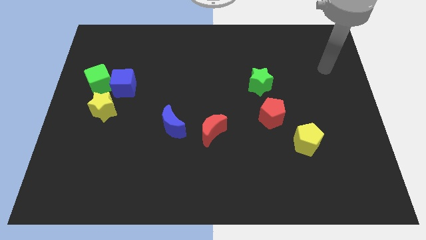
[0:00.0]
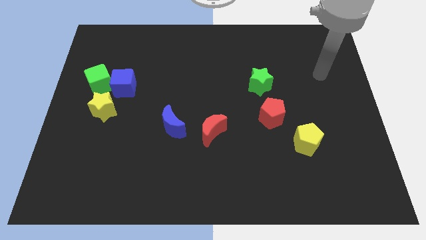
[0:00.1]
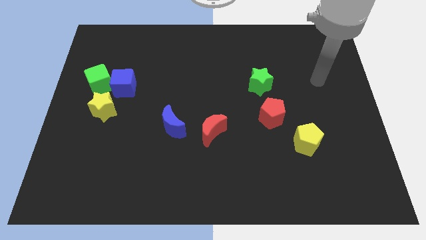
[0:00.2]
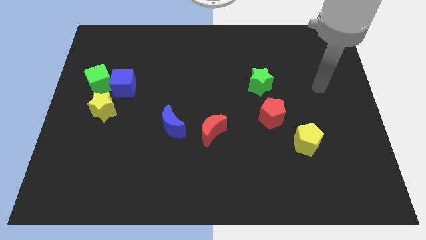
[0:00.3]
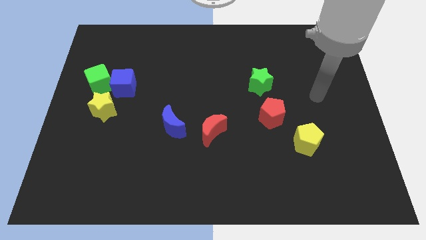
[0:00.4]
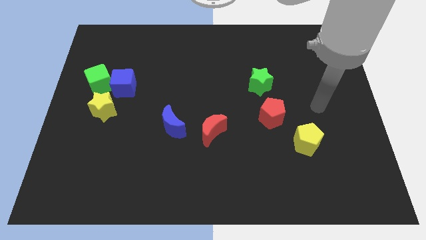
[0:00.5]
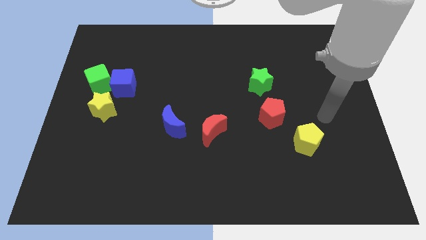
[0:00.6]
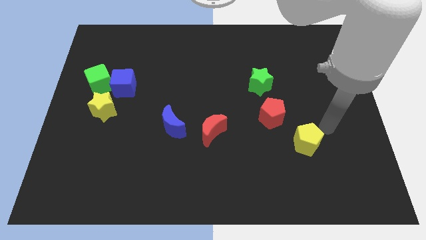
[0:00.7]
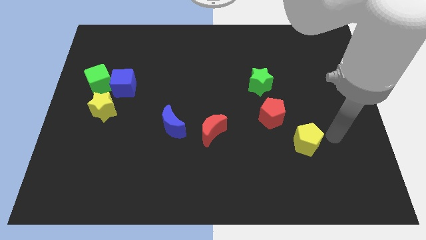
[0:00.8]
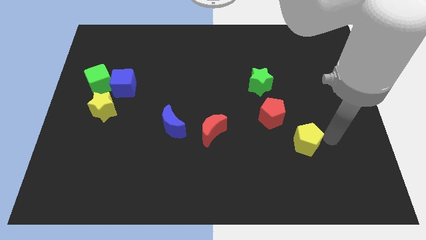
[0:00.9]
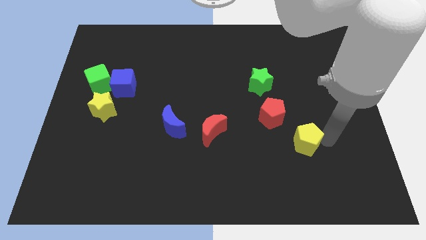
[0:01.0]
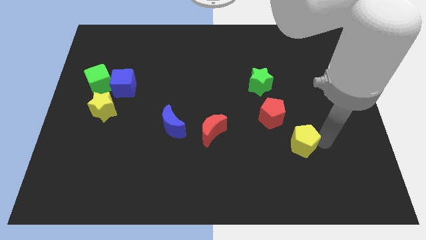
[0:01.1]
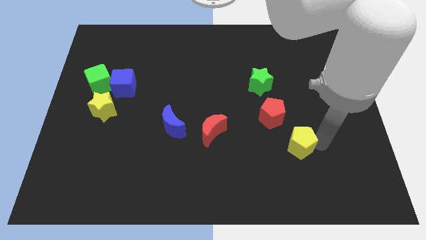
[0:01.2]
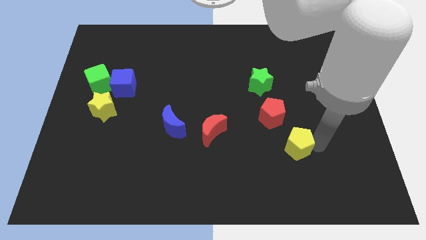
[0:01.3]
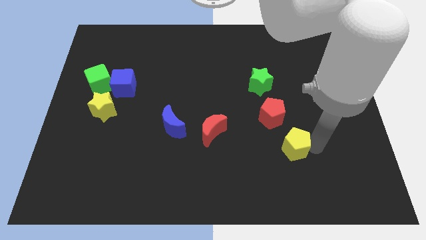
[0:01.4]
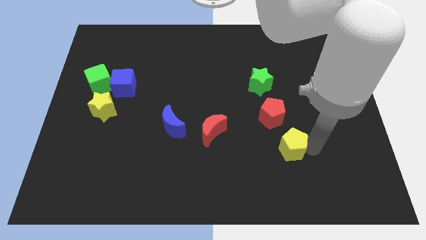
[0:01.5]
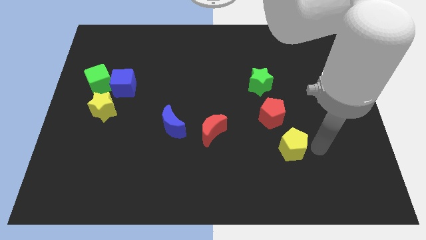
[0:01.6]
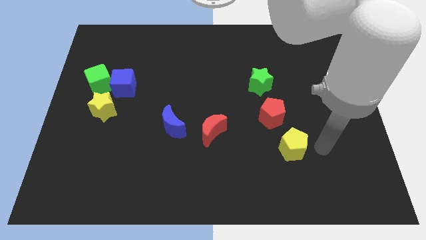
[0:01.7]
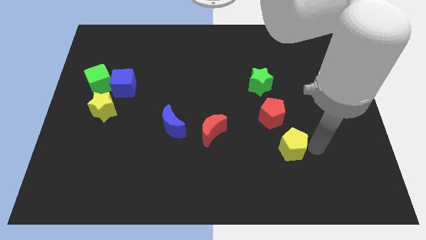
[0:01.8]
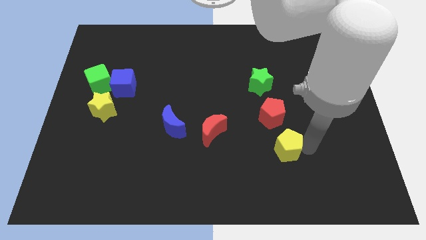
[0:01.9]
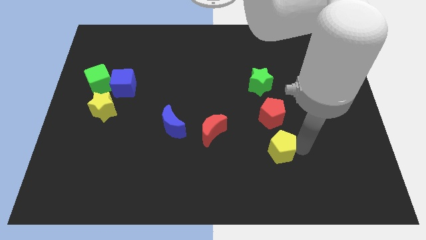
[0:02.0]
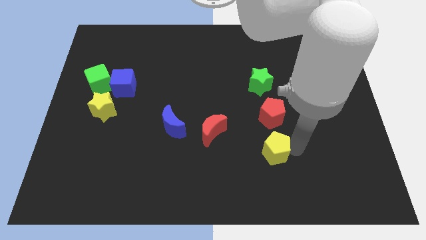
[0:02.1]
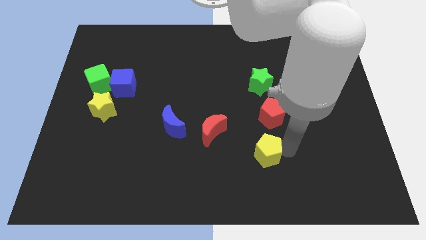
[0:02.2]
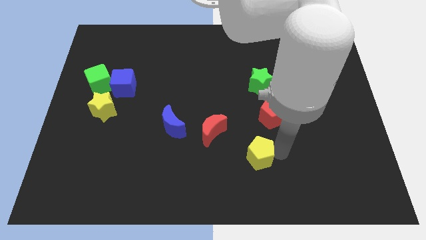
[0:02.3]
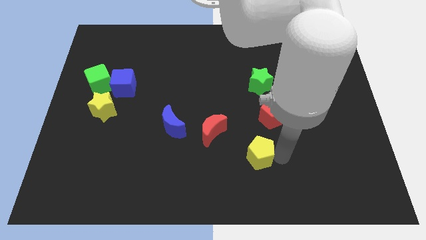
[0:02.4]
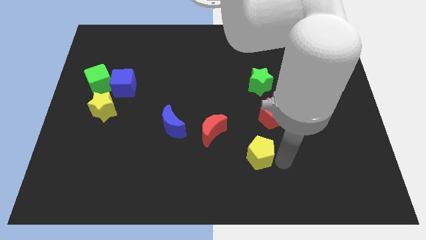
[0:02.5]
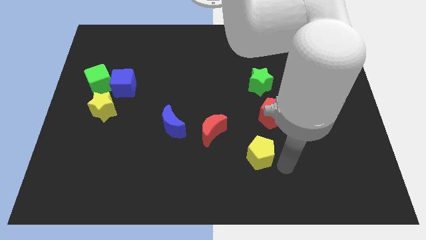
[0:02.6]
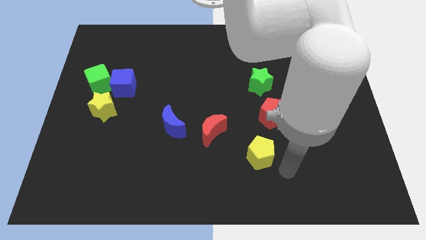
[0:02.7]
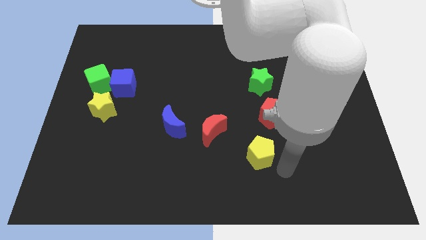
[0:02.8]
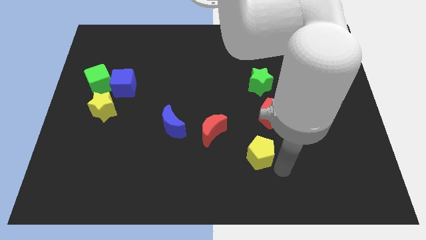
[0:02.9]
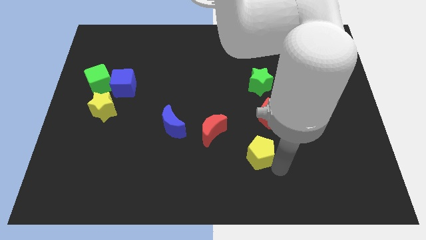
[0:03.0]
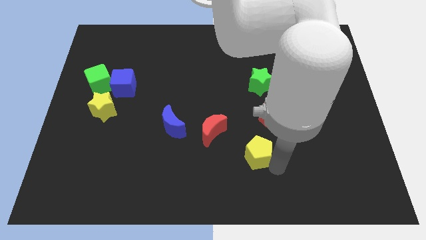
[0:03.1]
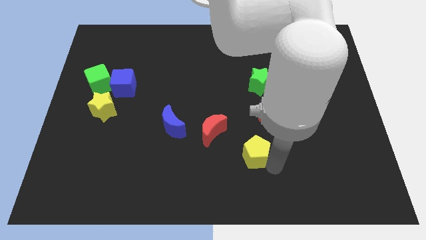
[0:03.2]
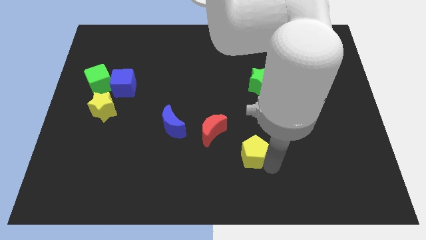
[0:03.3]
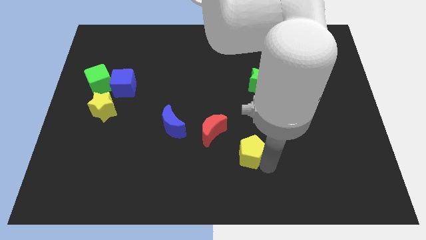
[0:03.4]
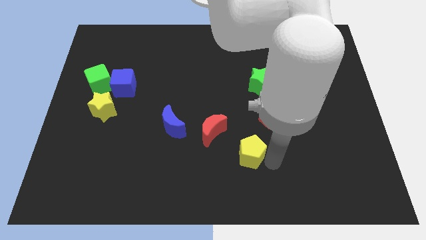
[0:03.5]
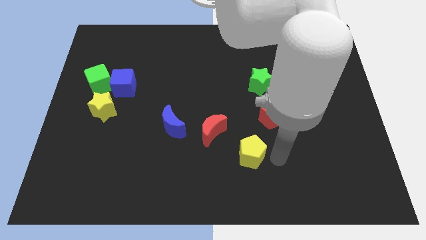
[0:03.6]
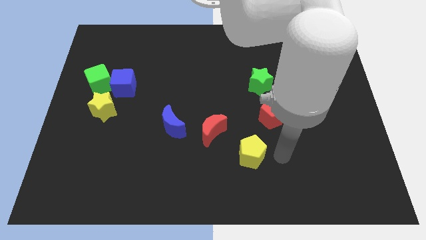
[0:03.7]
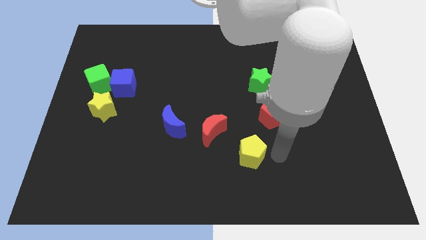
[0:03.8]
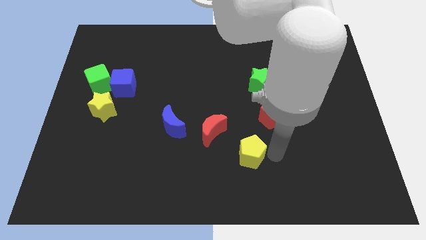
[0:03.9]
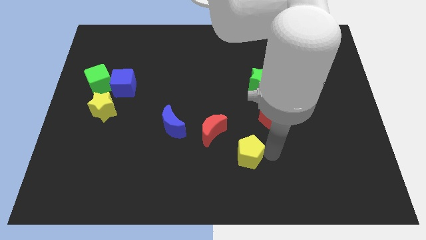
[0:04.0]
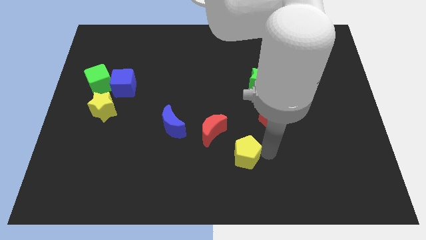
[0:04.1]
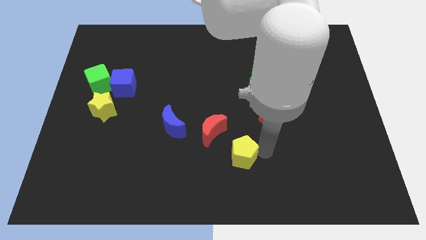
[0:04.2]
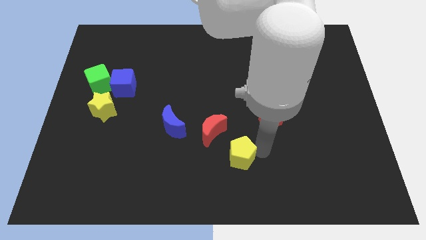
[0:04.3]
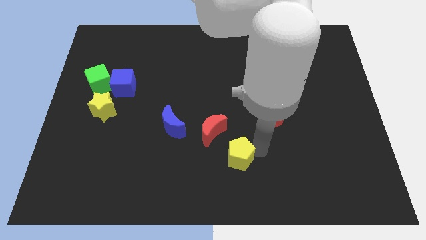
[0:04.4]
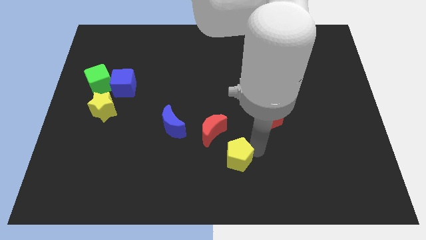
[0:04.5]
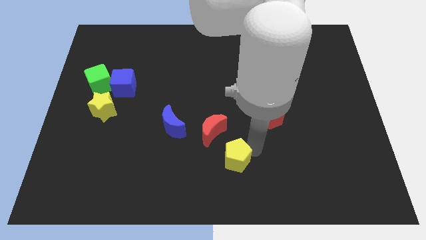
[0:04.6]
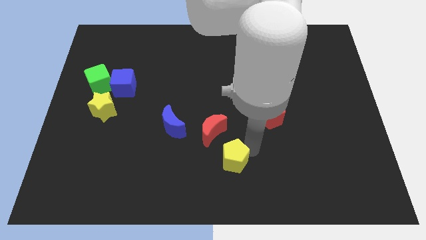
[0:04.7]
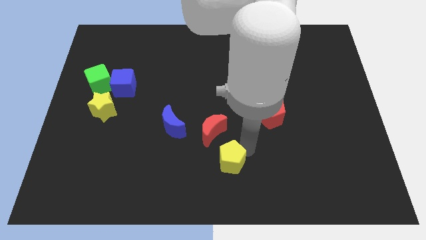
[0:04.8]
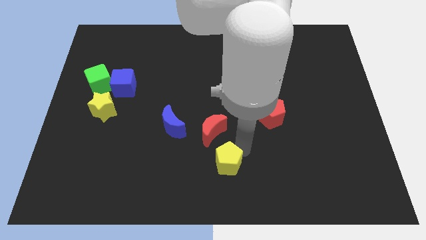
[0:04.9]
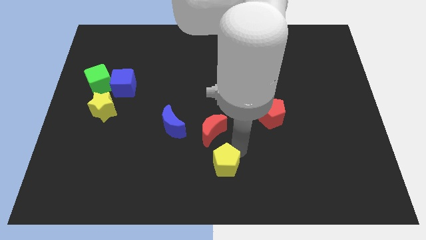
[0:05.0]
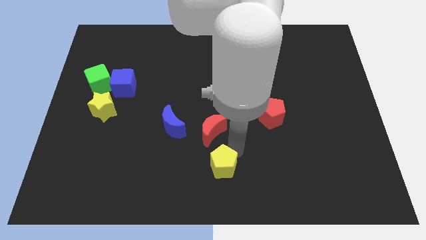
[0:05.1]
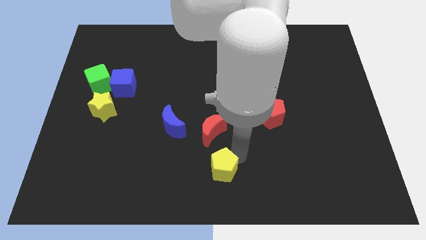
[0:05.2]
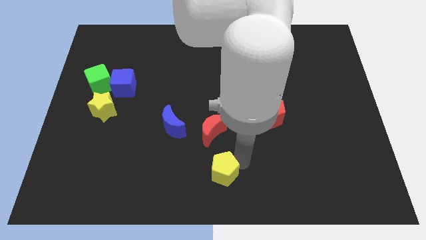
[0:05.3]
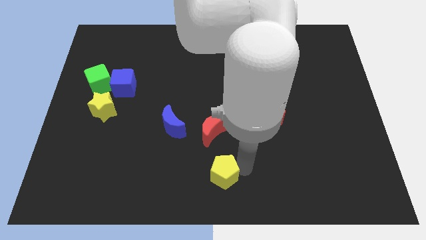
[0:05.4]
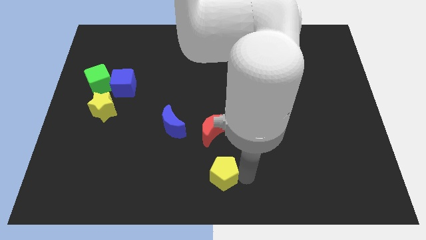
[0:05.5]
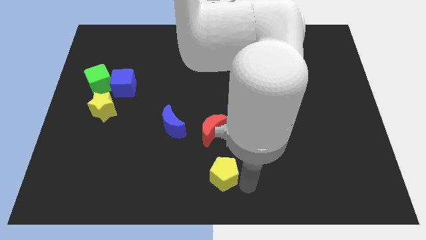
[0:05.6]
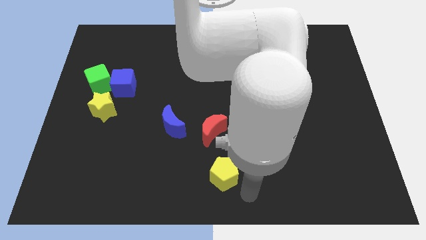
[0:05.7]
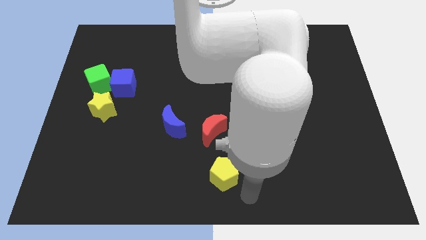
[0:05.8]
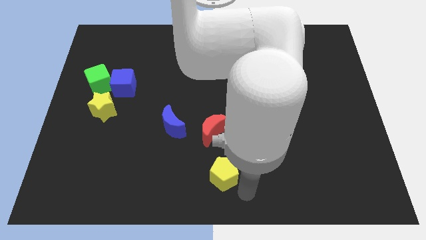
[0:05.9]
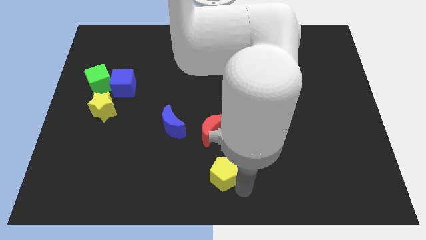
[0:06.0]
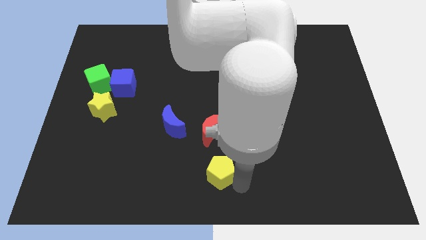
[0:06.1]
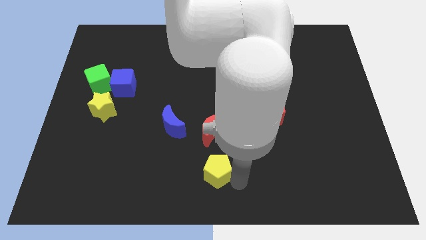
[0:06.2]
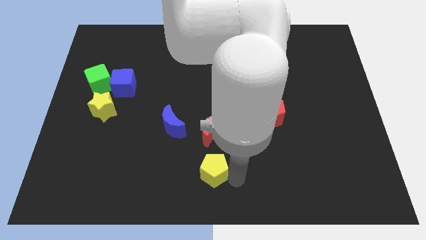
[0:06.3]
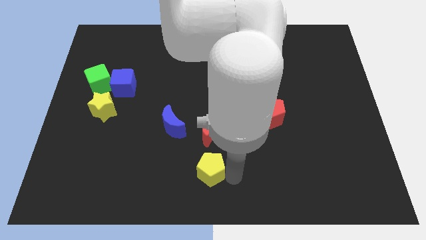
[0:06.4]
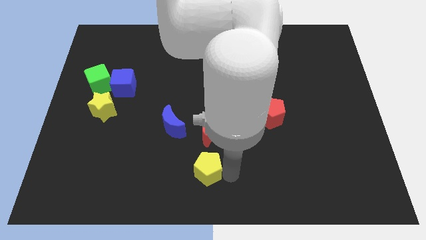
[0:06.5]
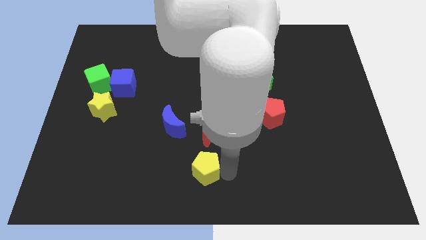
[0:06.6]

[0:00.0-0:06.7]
slide the yellow pentagon to the left

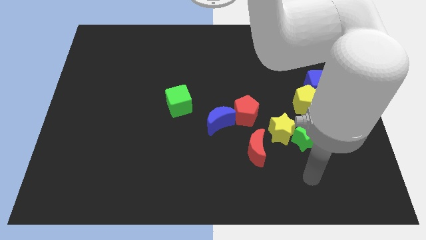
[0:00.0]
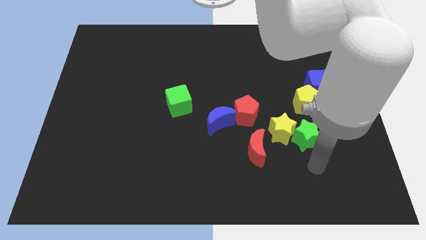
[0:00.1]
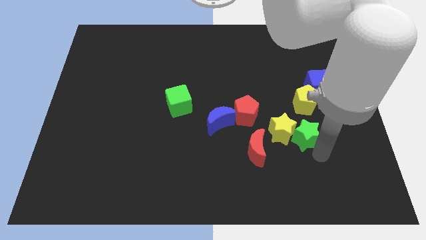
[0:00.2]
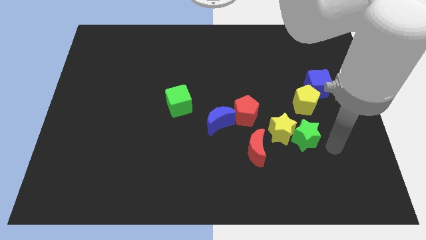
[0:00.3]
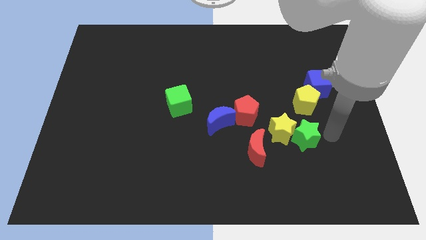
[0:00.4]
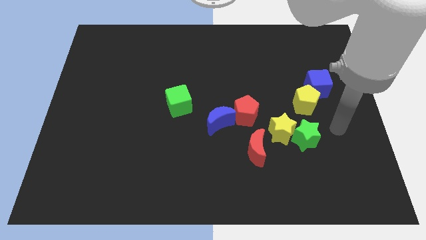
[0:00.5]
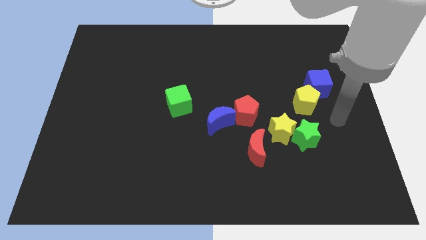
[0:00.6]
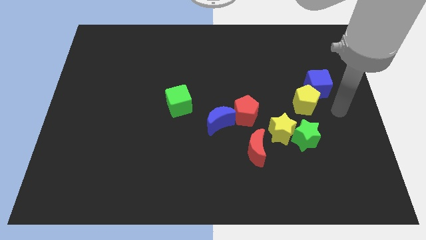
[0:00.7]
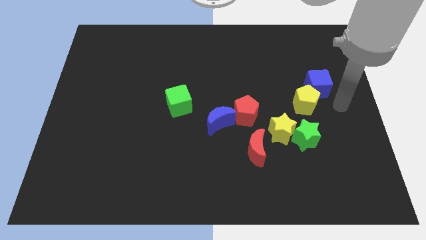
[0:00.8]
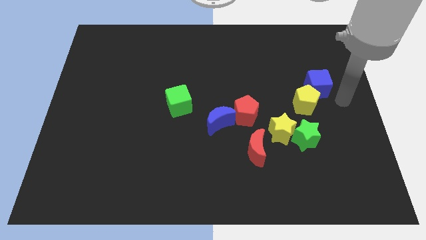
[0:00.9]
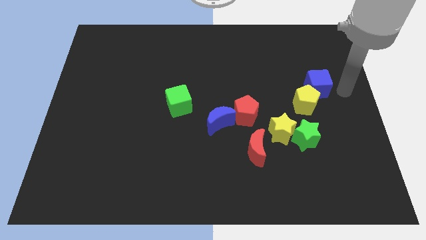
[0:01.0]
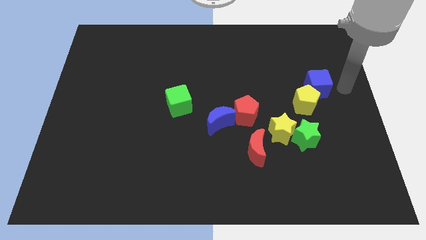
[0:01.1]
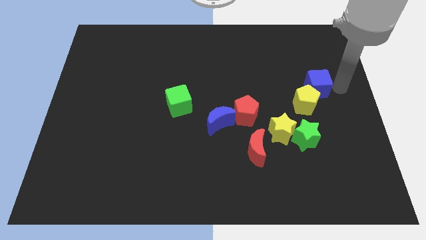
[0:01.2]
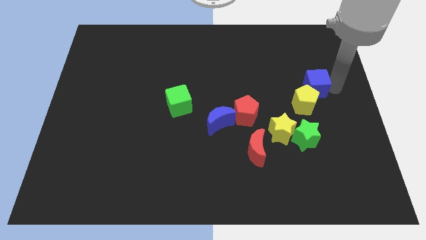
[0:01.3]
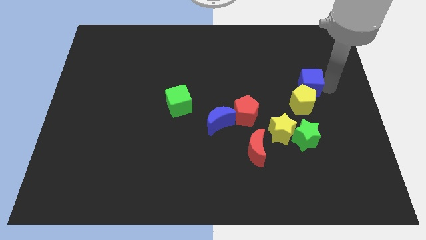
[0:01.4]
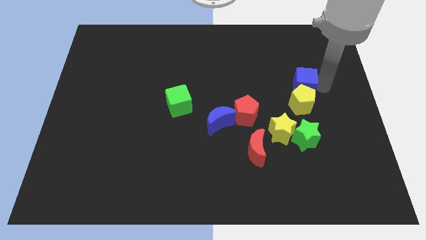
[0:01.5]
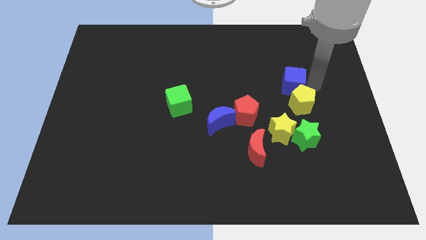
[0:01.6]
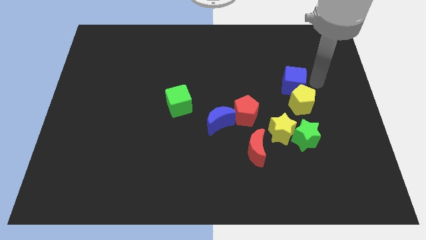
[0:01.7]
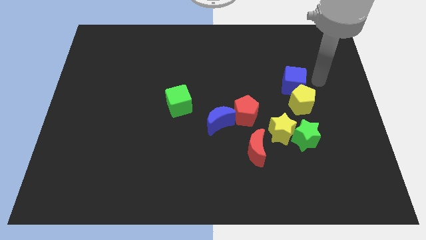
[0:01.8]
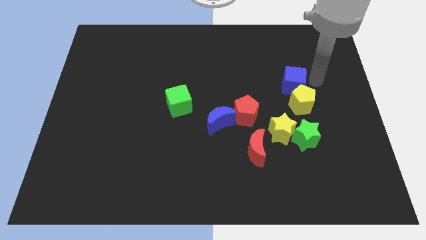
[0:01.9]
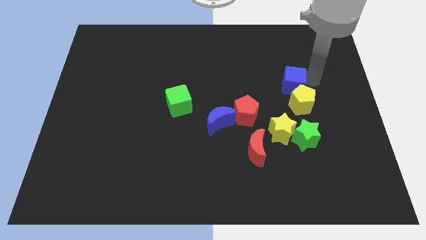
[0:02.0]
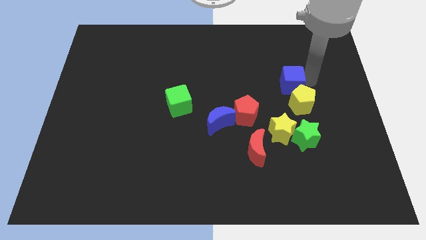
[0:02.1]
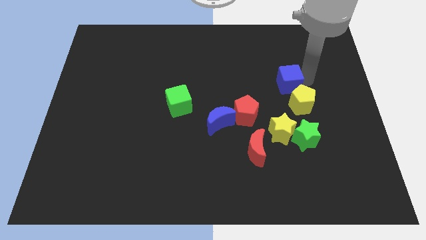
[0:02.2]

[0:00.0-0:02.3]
slightly slide the blue cube left
